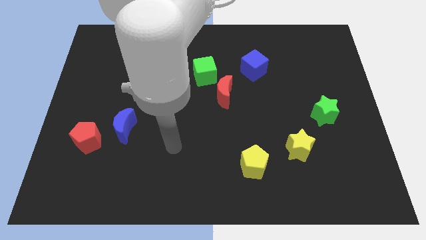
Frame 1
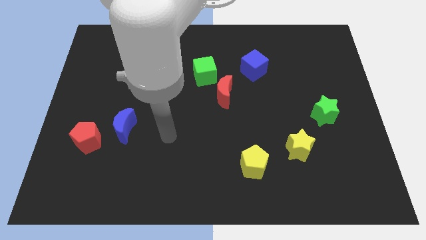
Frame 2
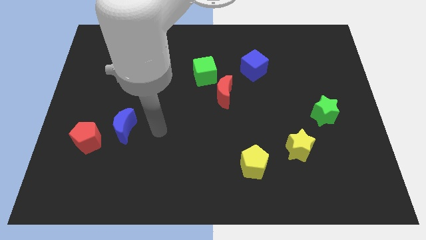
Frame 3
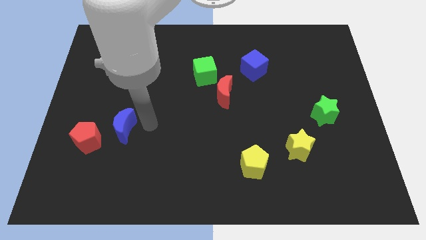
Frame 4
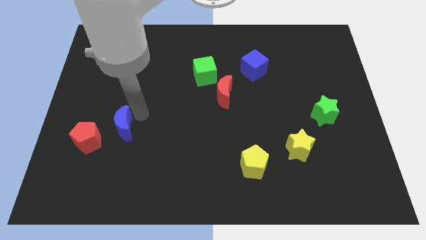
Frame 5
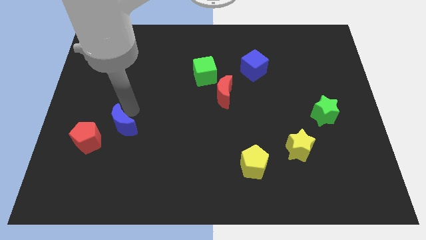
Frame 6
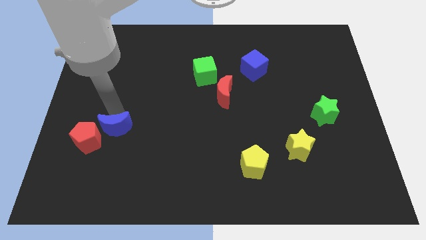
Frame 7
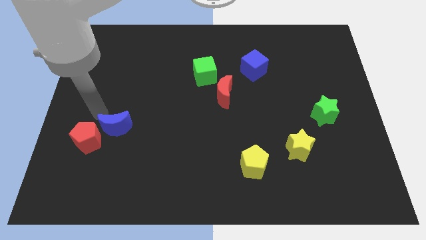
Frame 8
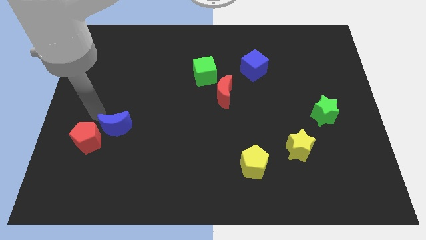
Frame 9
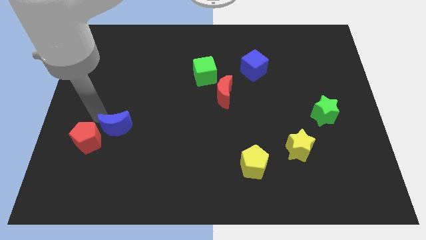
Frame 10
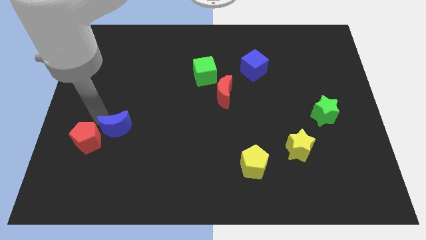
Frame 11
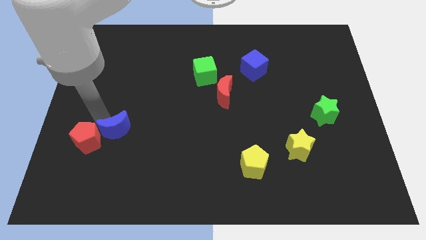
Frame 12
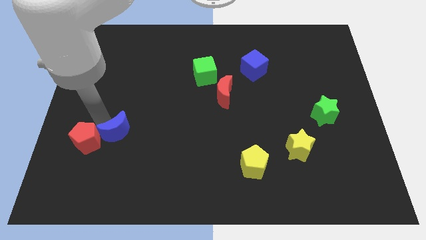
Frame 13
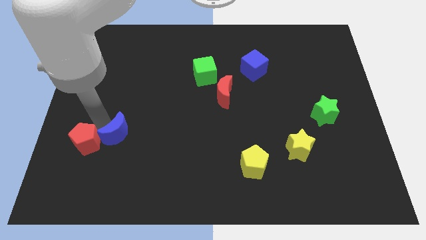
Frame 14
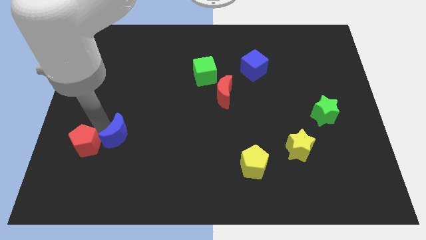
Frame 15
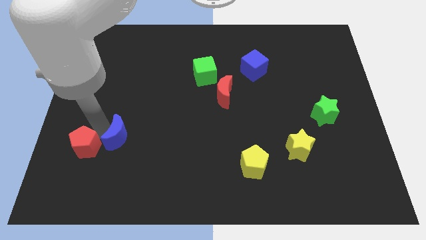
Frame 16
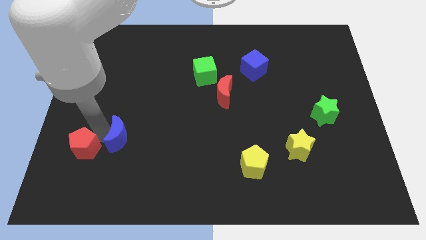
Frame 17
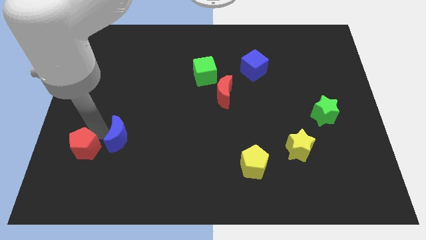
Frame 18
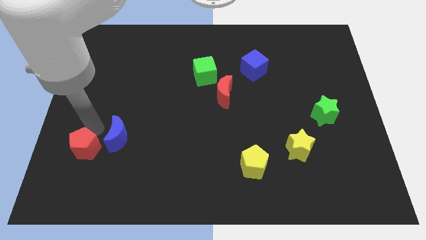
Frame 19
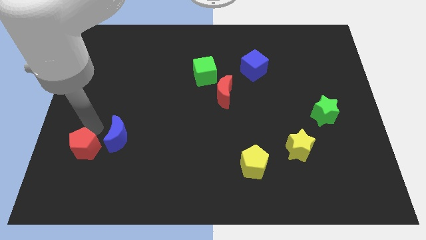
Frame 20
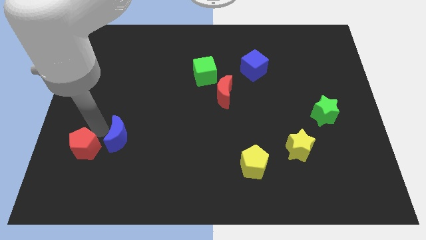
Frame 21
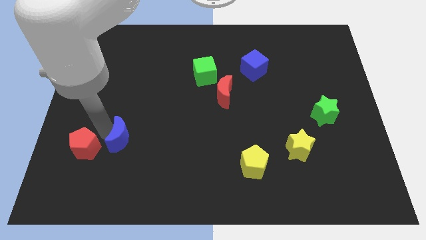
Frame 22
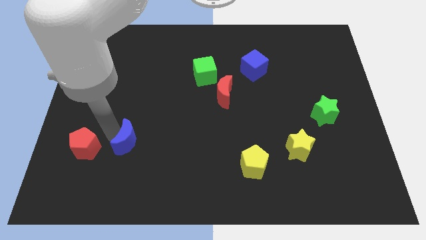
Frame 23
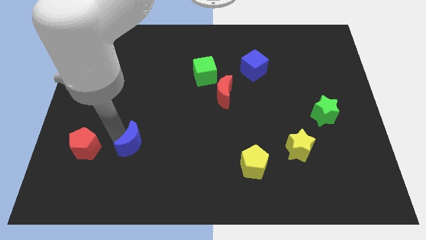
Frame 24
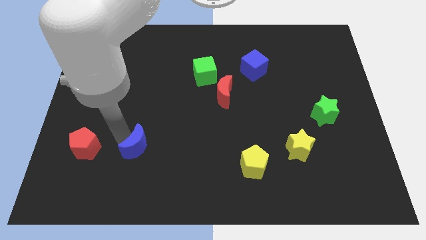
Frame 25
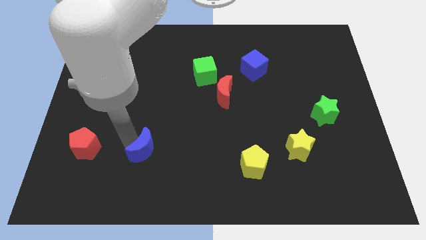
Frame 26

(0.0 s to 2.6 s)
push the blue moon downwards and right slightly

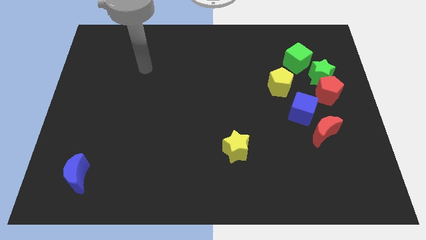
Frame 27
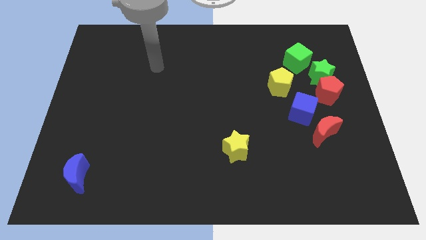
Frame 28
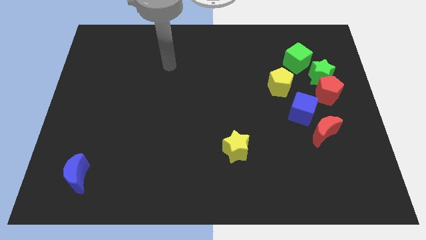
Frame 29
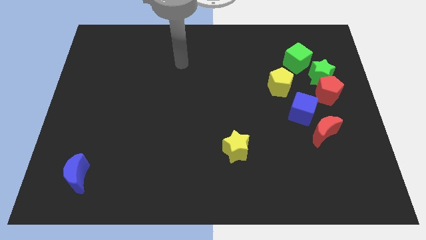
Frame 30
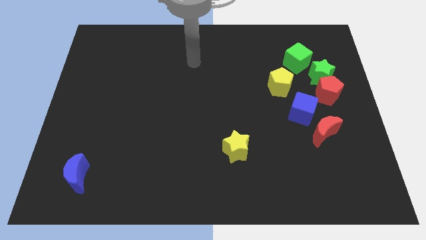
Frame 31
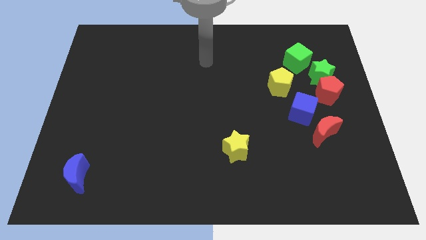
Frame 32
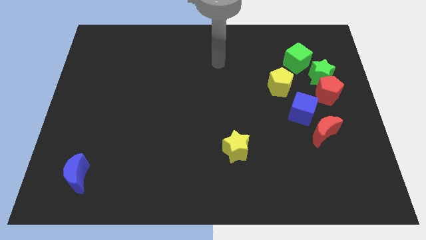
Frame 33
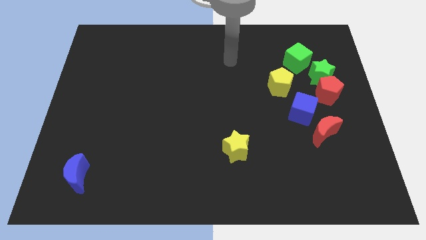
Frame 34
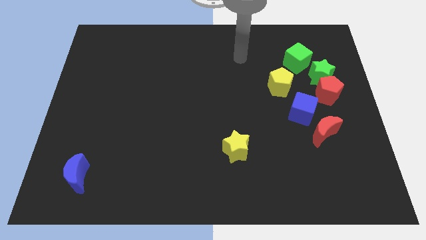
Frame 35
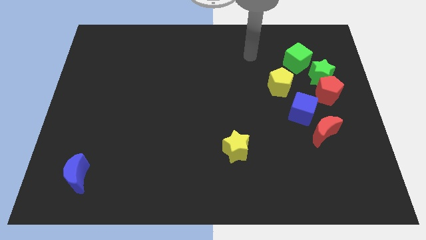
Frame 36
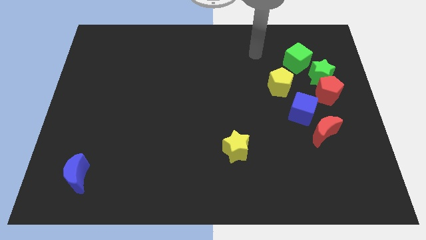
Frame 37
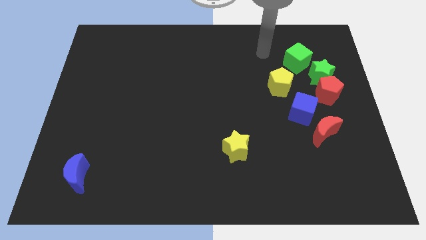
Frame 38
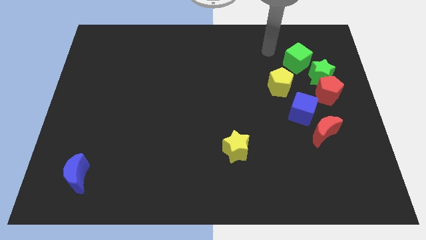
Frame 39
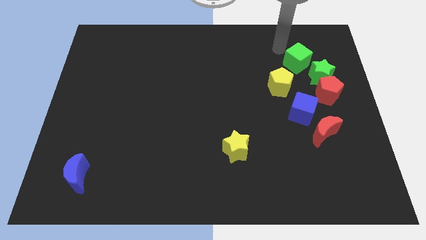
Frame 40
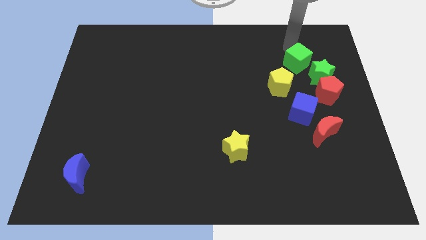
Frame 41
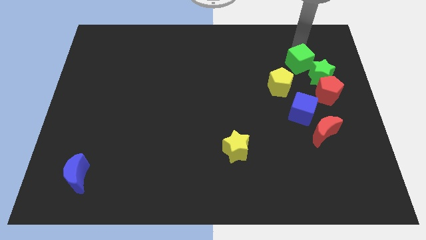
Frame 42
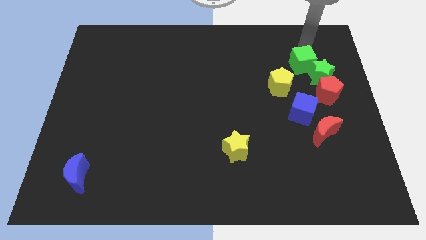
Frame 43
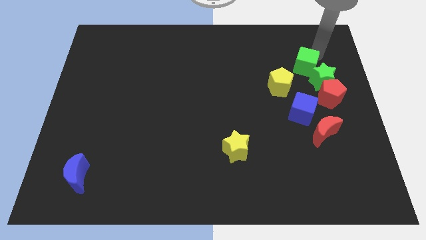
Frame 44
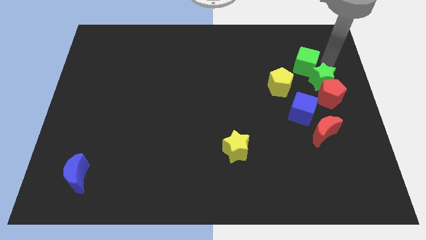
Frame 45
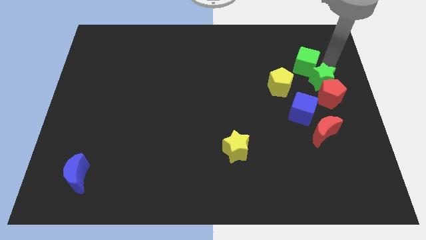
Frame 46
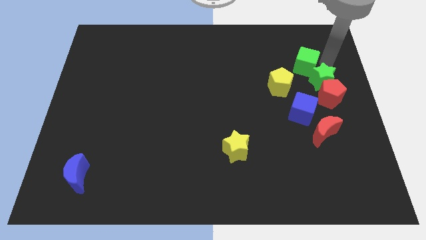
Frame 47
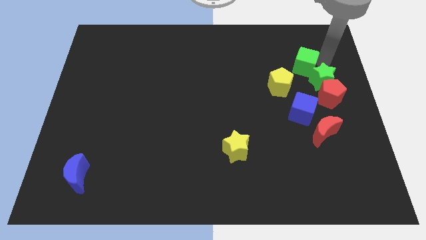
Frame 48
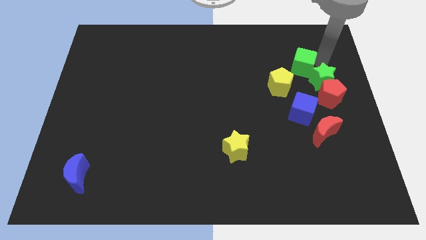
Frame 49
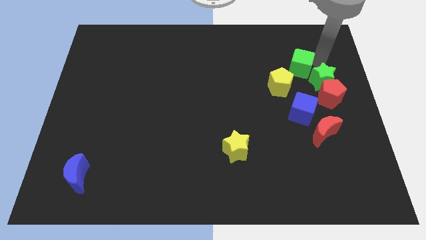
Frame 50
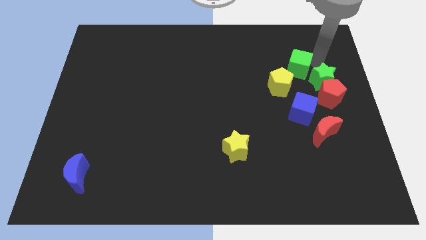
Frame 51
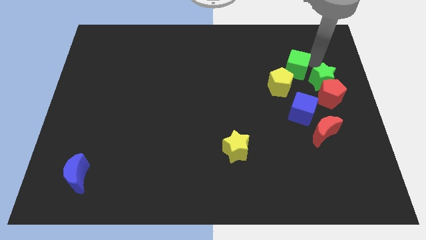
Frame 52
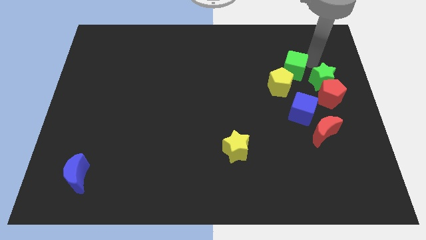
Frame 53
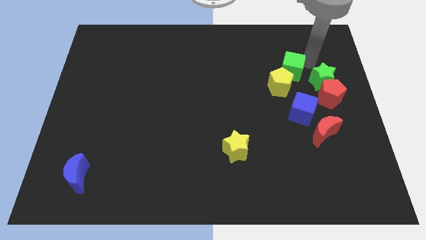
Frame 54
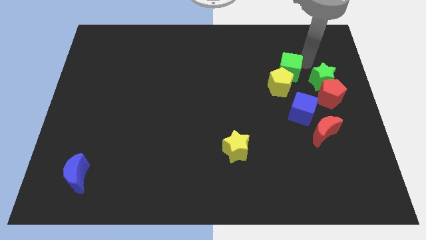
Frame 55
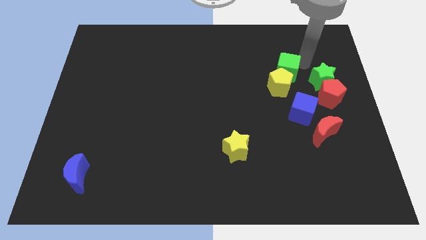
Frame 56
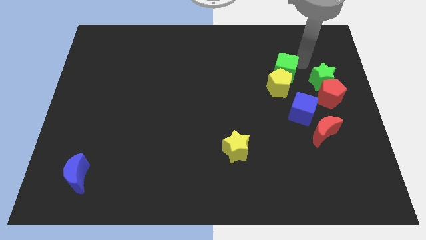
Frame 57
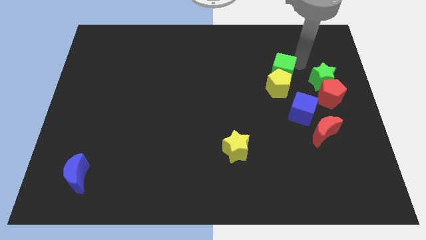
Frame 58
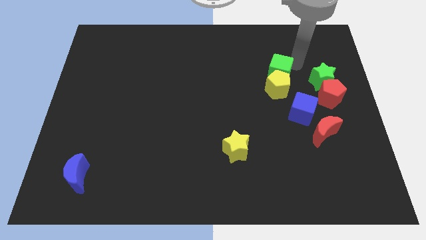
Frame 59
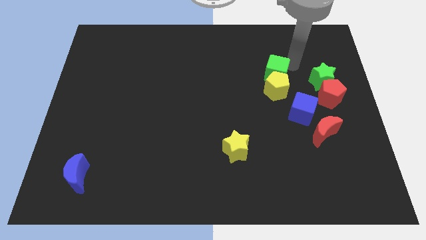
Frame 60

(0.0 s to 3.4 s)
slightly move the green cube downwards and then to the left

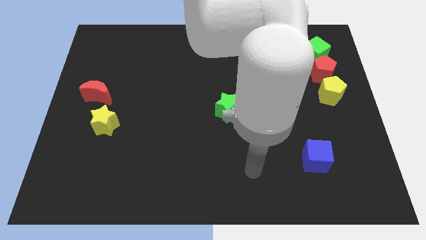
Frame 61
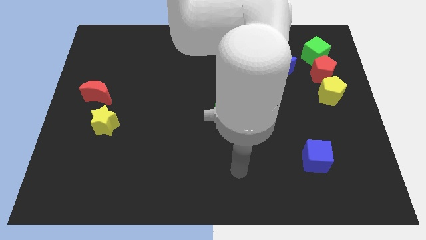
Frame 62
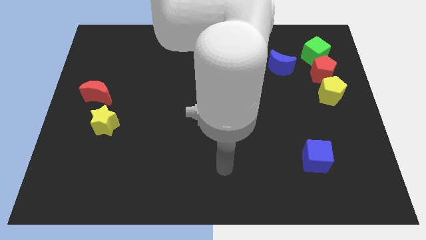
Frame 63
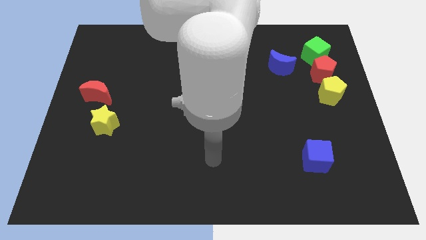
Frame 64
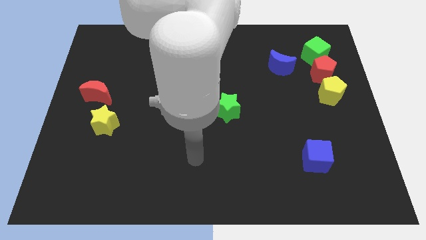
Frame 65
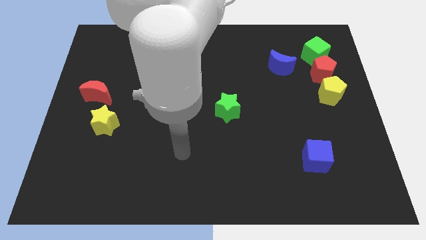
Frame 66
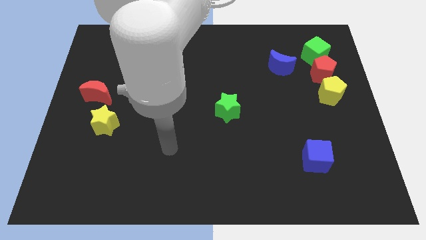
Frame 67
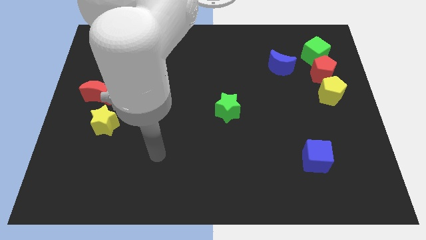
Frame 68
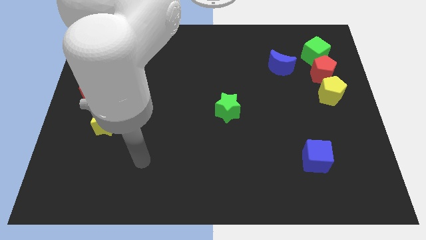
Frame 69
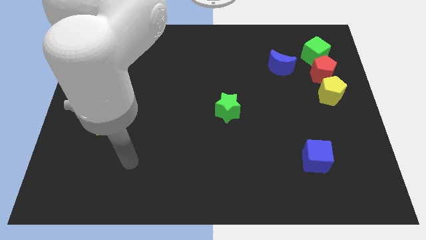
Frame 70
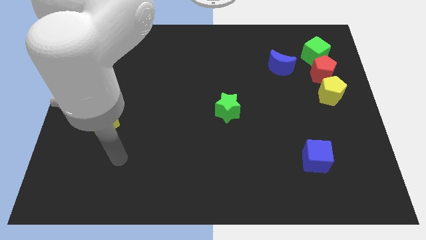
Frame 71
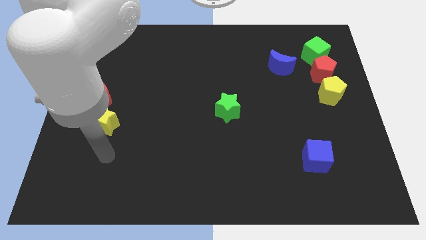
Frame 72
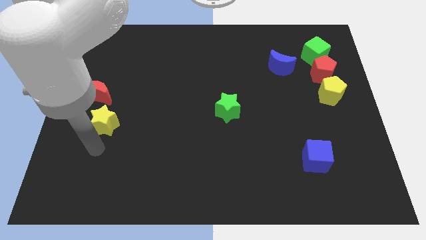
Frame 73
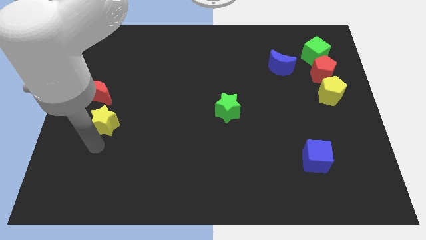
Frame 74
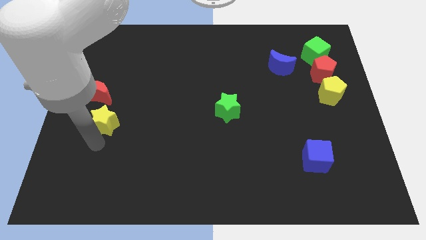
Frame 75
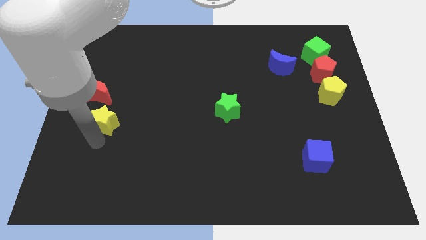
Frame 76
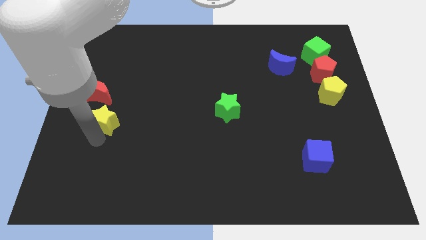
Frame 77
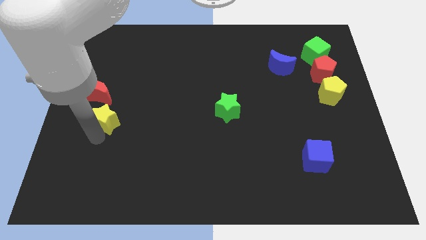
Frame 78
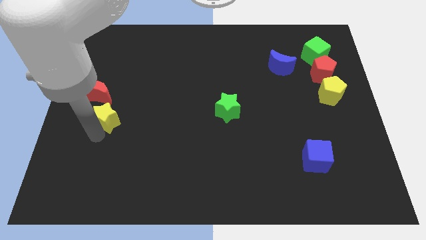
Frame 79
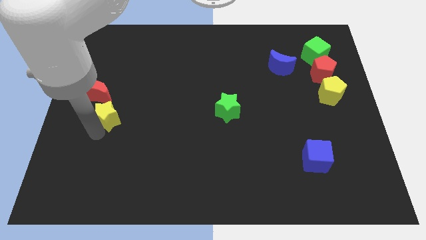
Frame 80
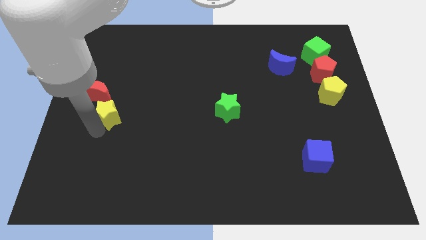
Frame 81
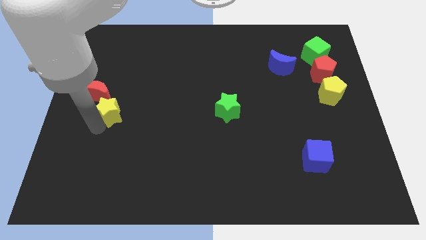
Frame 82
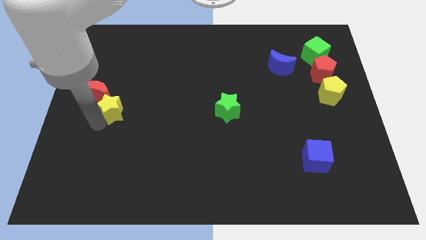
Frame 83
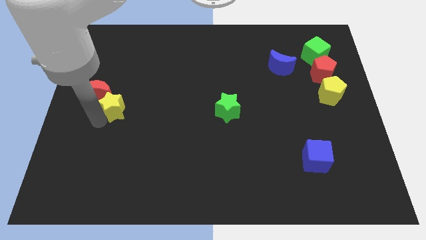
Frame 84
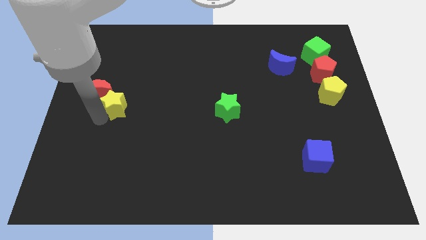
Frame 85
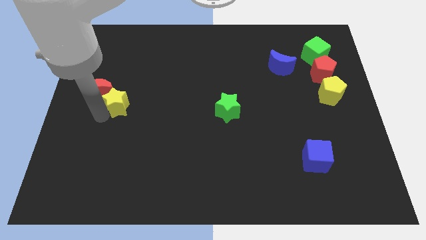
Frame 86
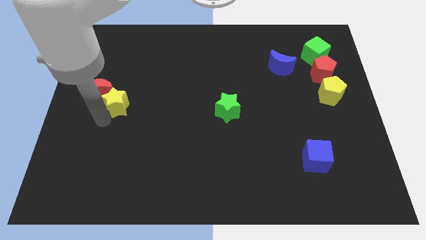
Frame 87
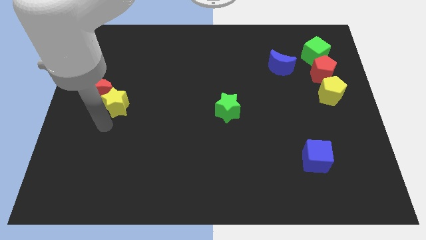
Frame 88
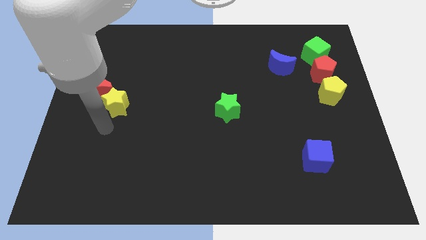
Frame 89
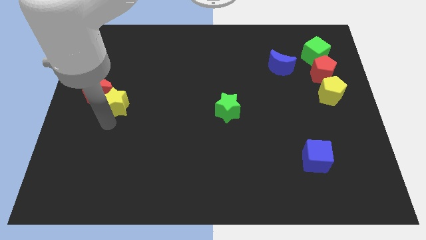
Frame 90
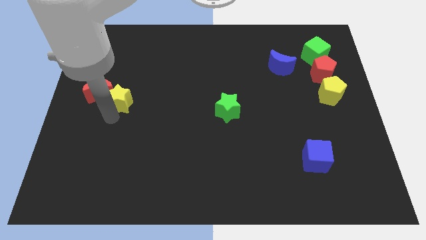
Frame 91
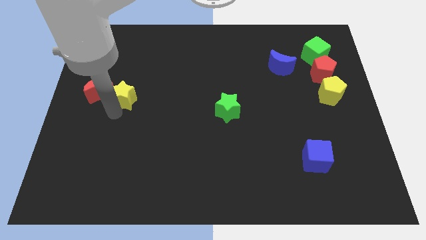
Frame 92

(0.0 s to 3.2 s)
push the yellow star upwards a little bit
